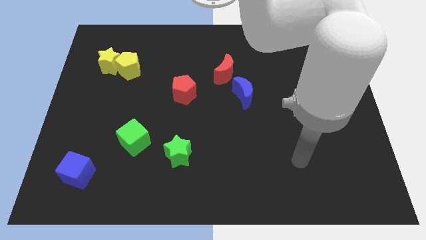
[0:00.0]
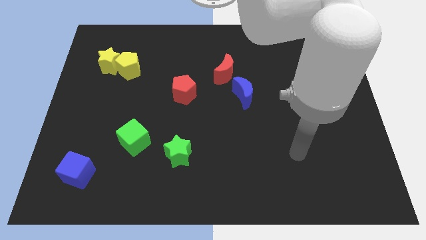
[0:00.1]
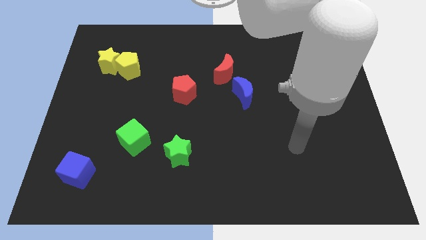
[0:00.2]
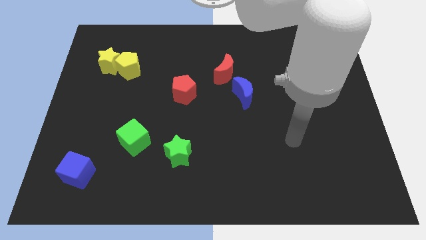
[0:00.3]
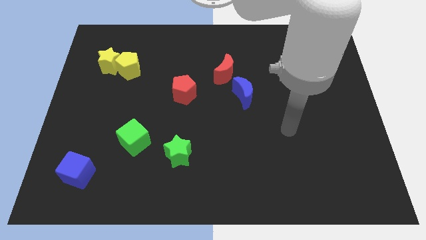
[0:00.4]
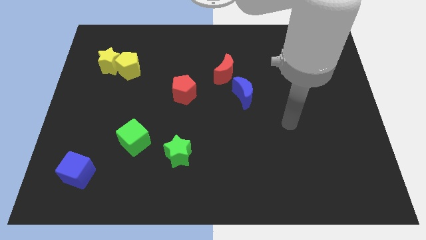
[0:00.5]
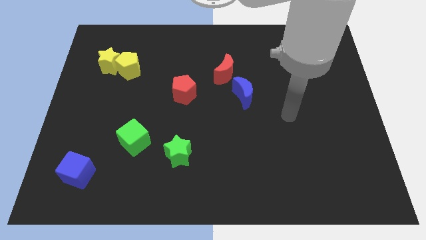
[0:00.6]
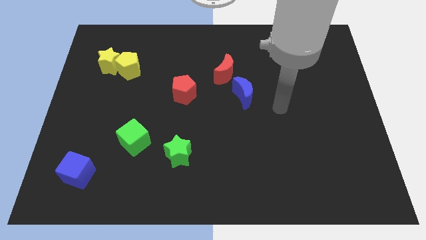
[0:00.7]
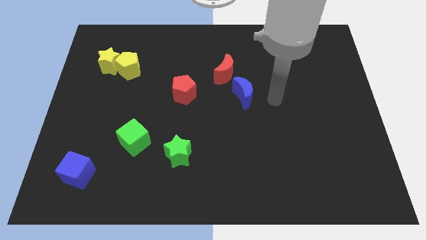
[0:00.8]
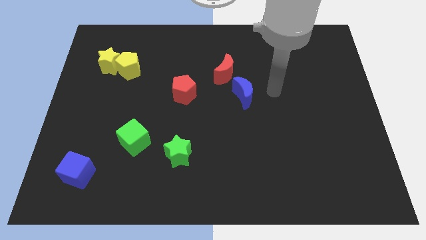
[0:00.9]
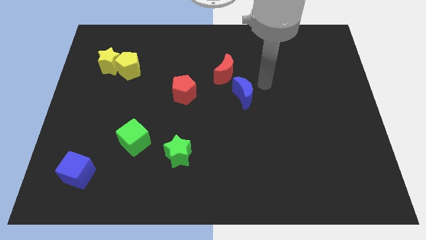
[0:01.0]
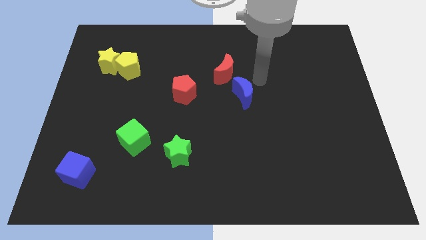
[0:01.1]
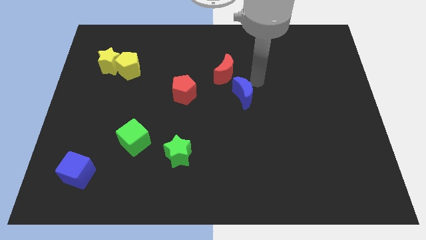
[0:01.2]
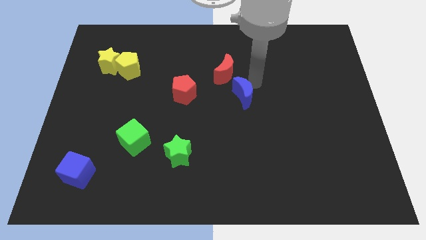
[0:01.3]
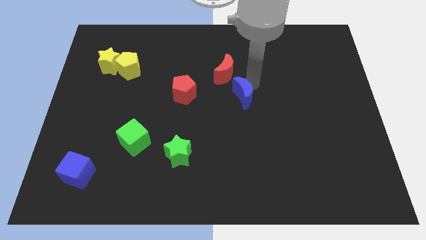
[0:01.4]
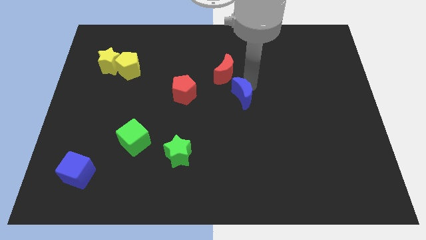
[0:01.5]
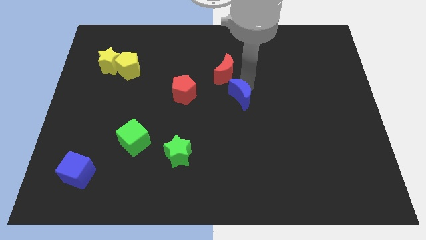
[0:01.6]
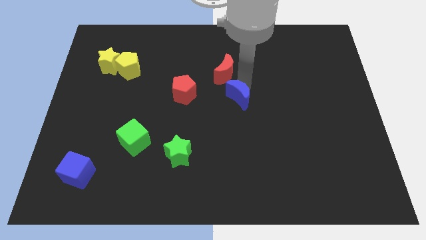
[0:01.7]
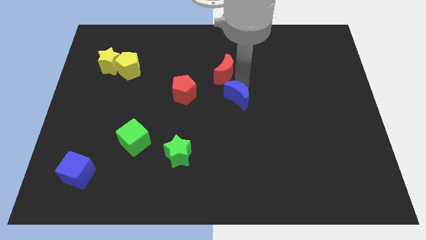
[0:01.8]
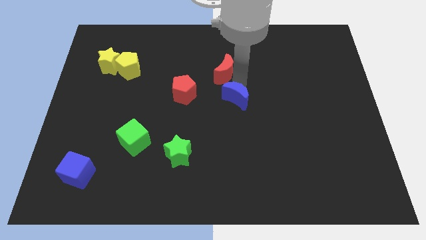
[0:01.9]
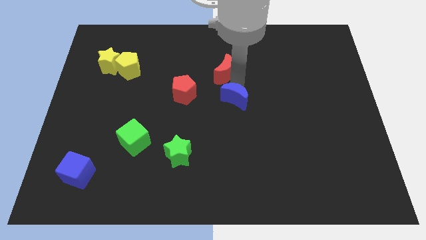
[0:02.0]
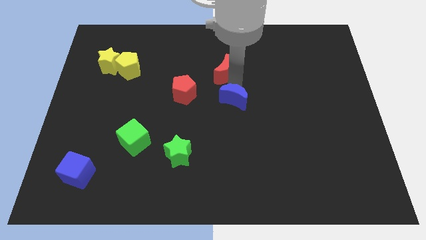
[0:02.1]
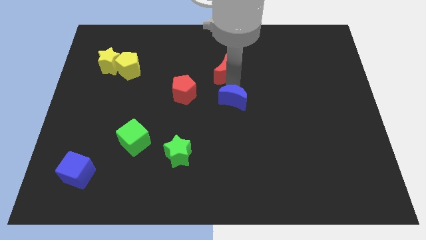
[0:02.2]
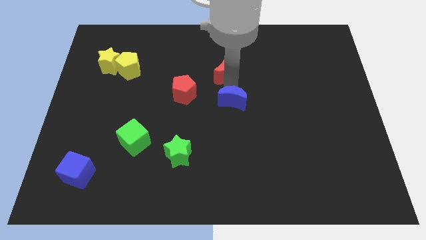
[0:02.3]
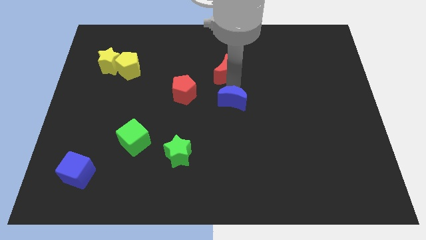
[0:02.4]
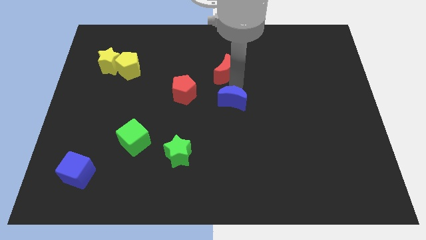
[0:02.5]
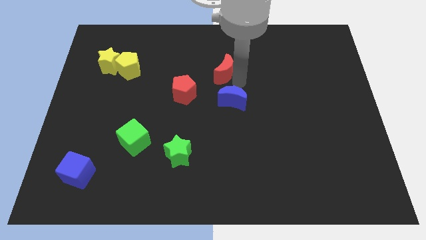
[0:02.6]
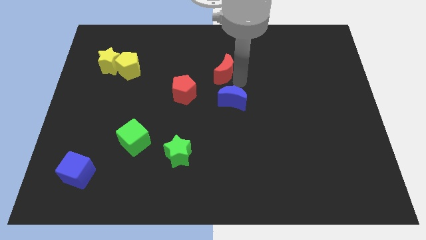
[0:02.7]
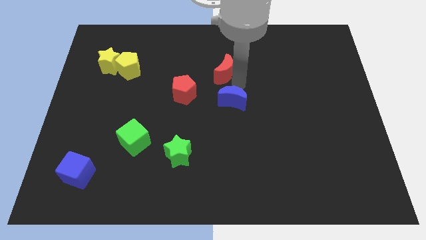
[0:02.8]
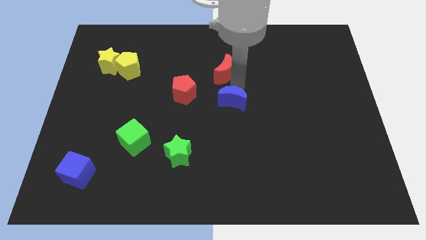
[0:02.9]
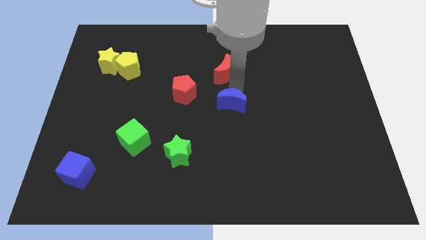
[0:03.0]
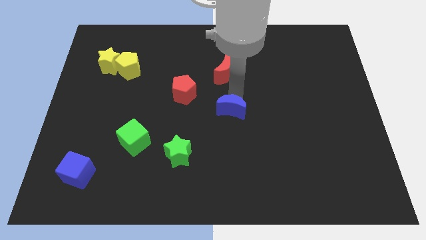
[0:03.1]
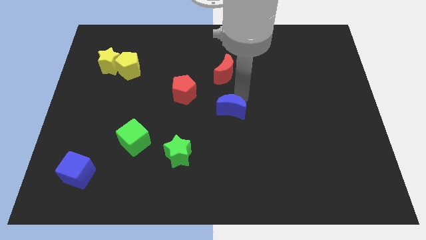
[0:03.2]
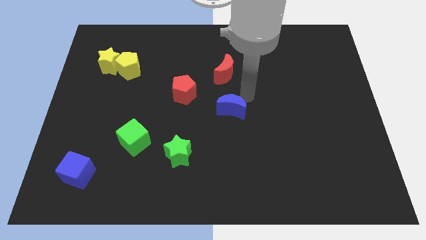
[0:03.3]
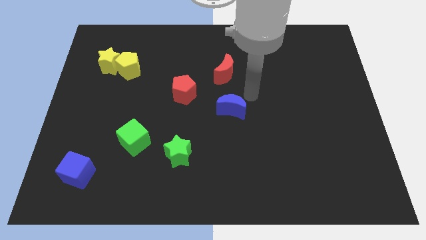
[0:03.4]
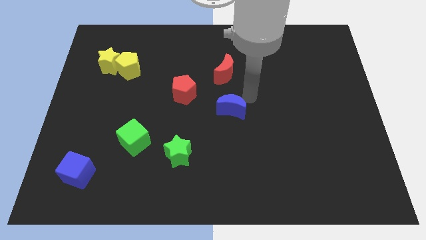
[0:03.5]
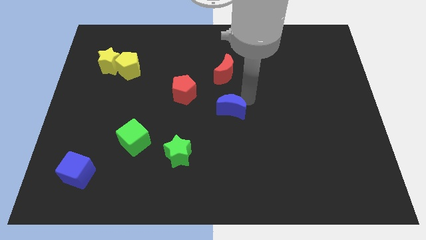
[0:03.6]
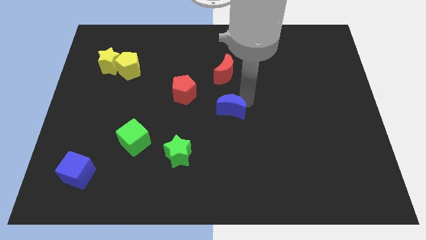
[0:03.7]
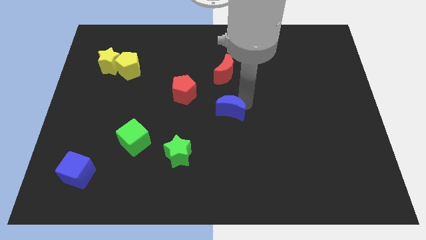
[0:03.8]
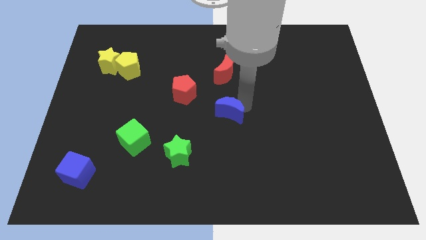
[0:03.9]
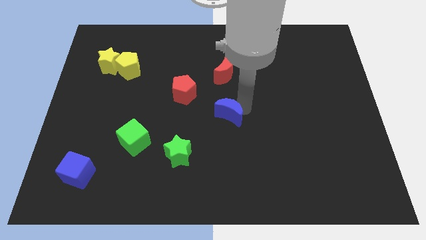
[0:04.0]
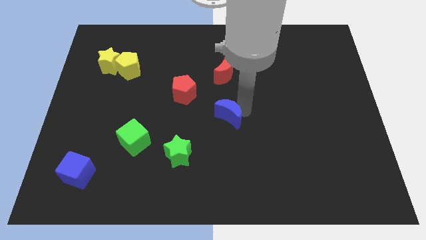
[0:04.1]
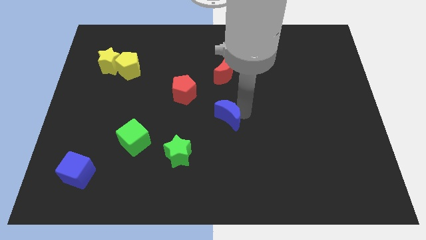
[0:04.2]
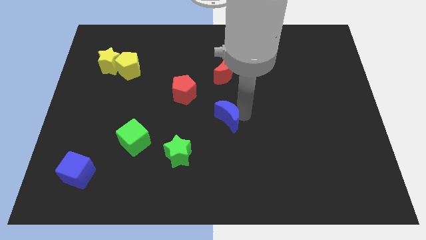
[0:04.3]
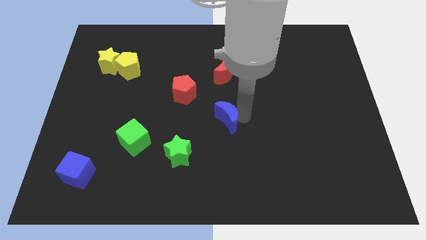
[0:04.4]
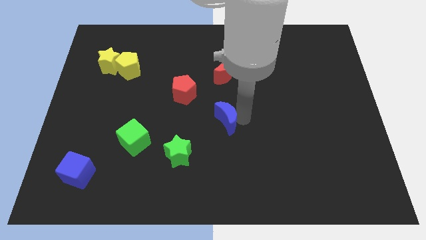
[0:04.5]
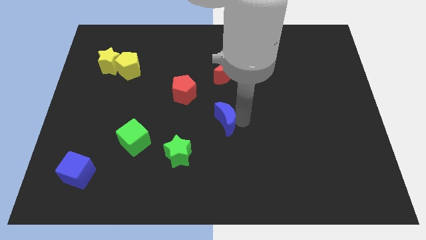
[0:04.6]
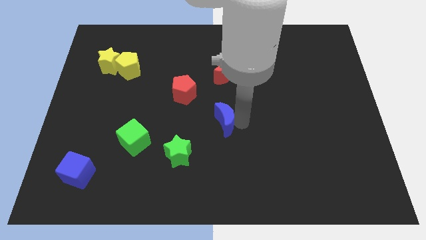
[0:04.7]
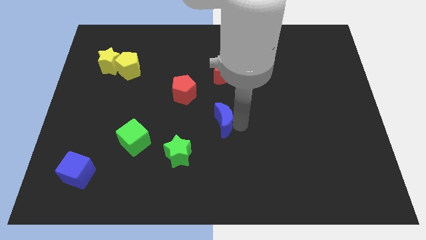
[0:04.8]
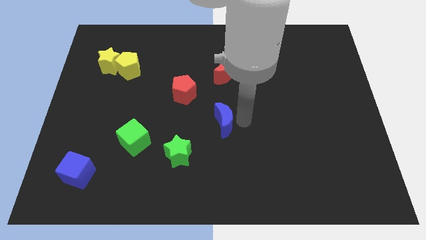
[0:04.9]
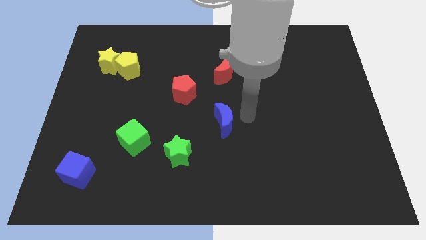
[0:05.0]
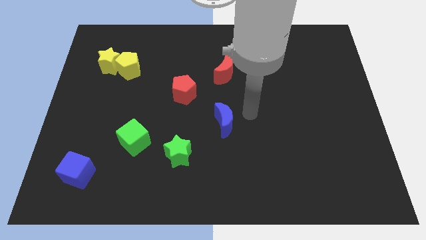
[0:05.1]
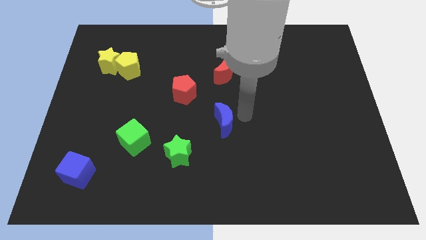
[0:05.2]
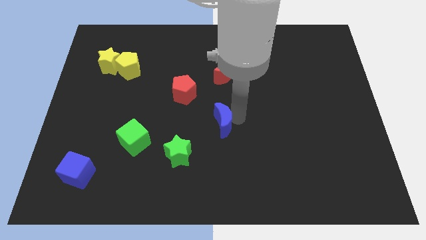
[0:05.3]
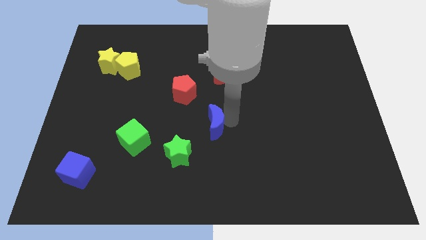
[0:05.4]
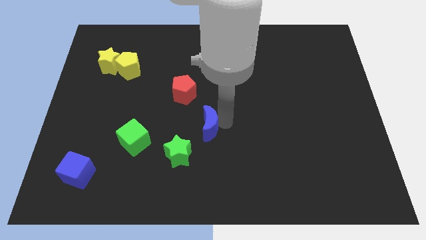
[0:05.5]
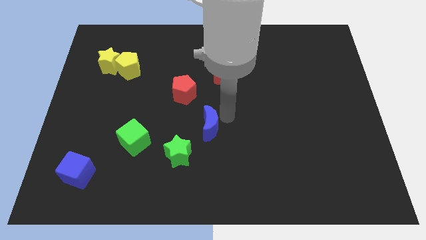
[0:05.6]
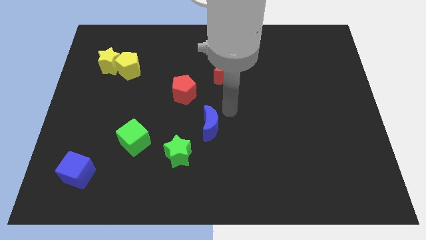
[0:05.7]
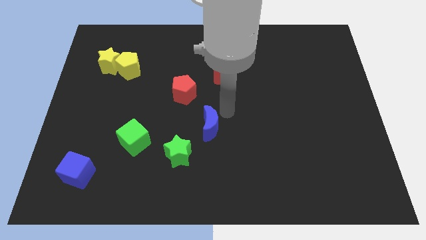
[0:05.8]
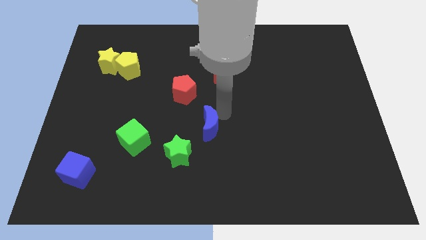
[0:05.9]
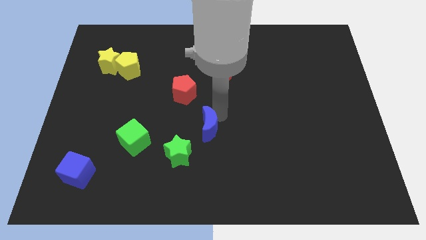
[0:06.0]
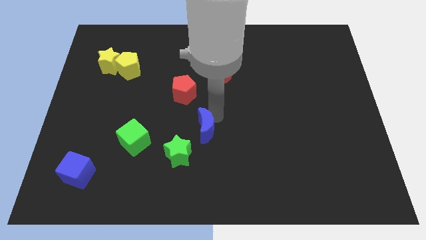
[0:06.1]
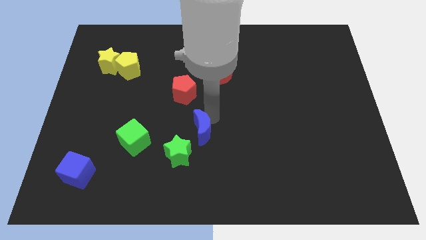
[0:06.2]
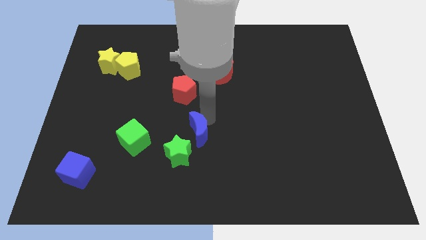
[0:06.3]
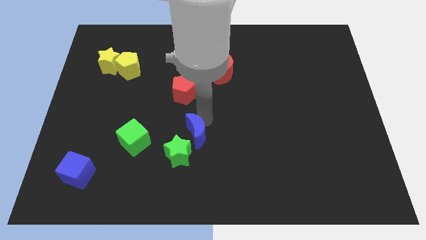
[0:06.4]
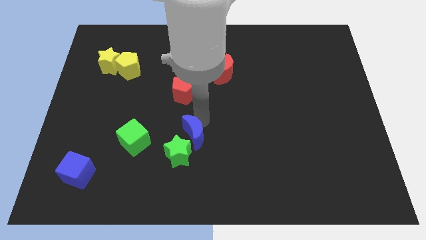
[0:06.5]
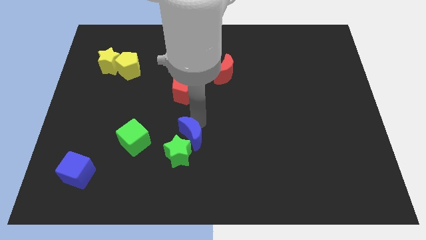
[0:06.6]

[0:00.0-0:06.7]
push the blue moon towards the green star
